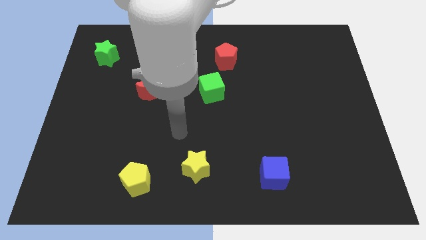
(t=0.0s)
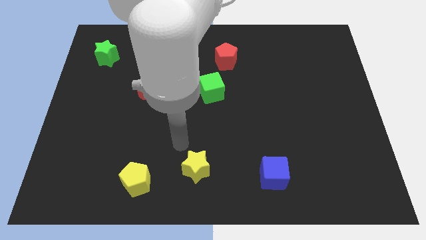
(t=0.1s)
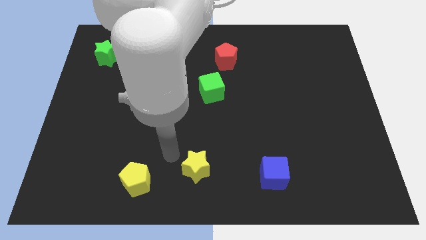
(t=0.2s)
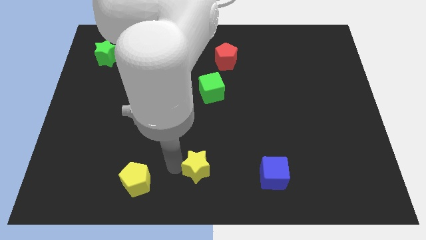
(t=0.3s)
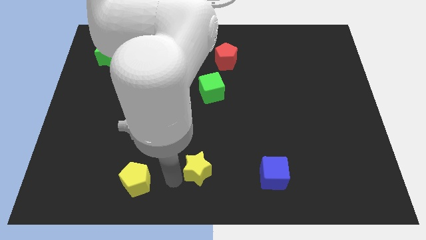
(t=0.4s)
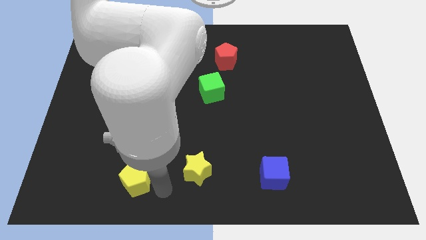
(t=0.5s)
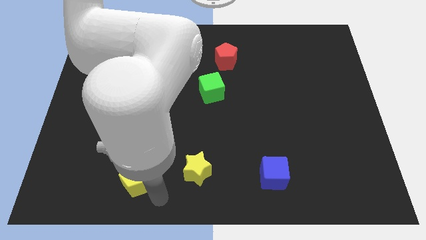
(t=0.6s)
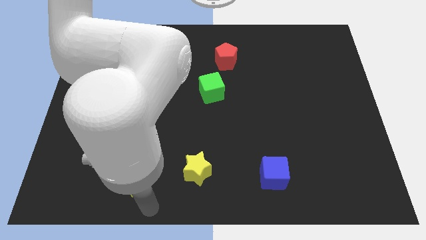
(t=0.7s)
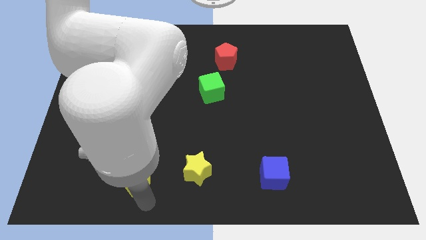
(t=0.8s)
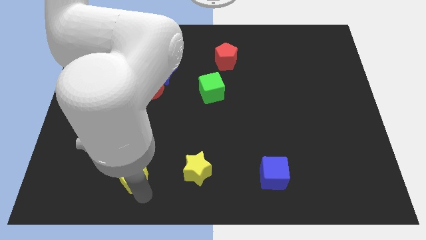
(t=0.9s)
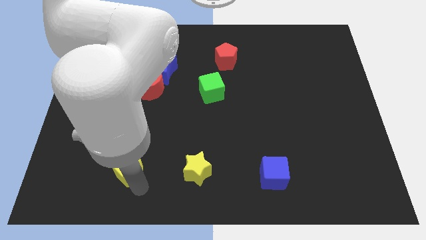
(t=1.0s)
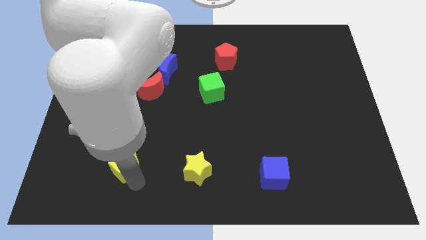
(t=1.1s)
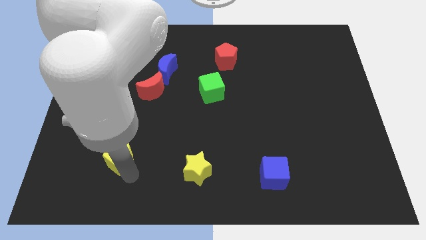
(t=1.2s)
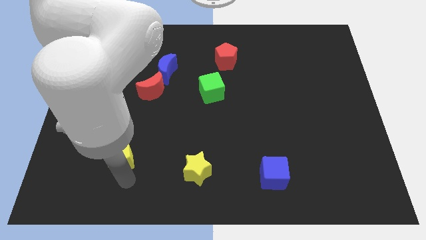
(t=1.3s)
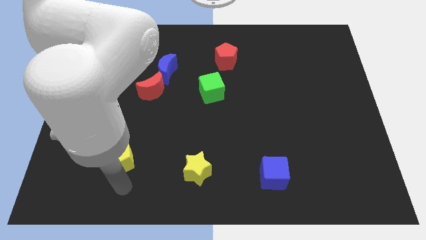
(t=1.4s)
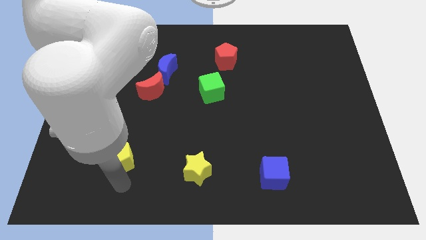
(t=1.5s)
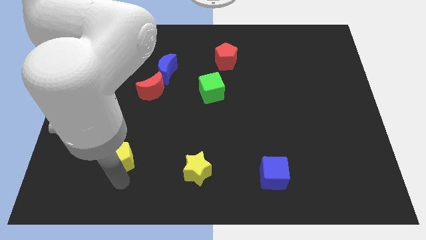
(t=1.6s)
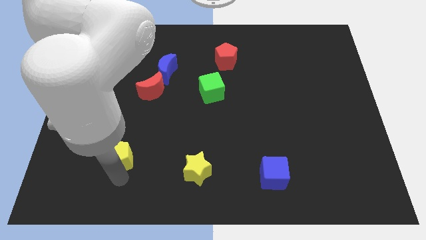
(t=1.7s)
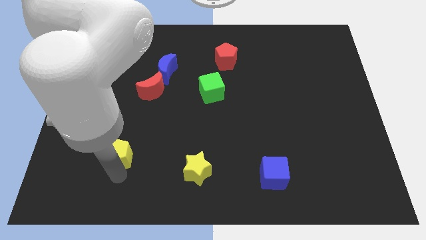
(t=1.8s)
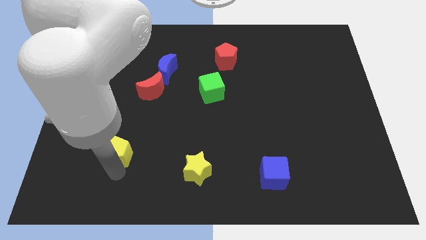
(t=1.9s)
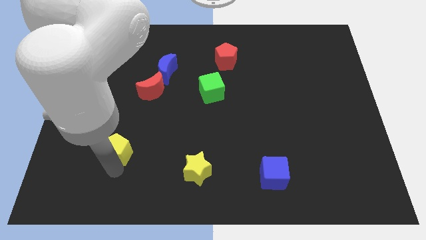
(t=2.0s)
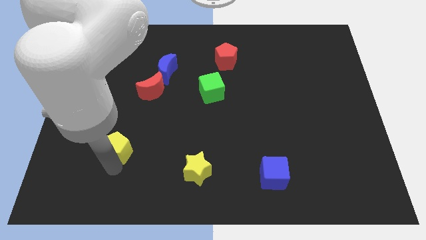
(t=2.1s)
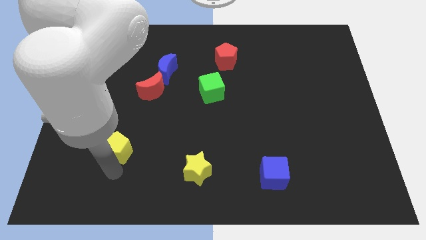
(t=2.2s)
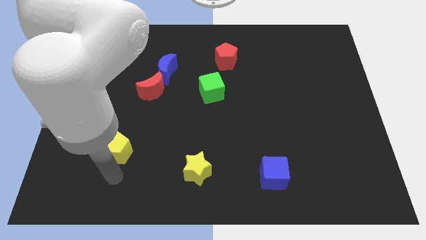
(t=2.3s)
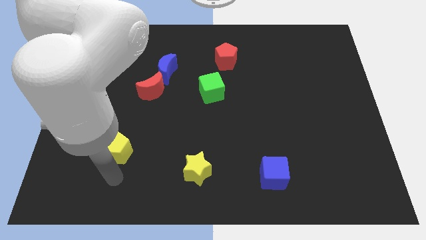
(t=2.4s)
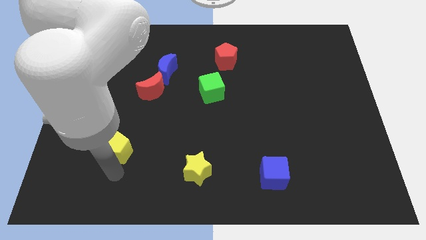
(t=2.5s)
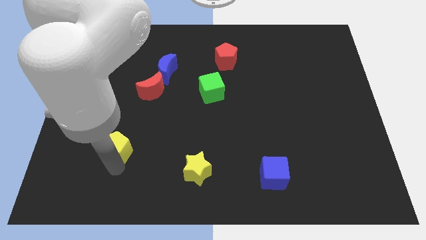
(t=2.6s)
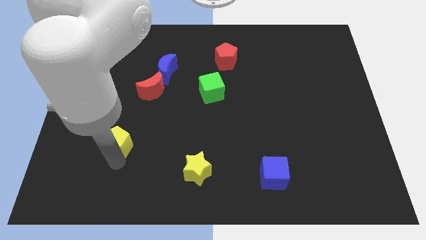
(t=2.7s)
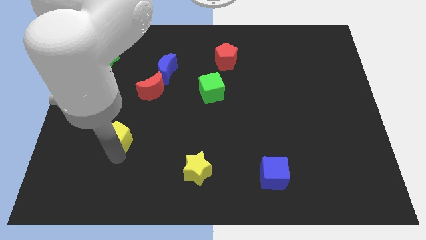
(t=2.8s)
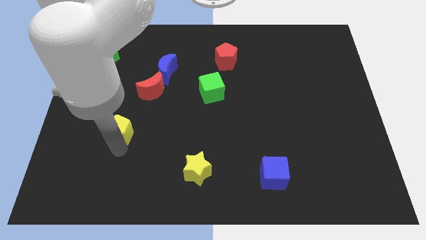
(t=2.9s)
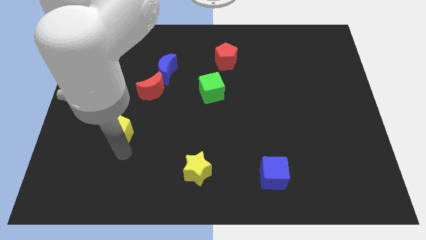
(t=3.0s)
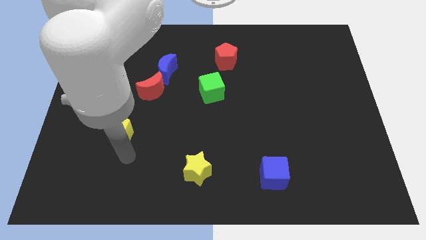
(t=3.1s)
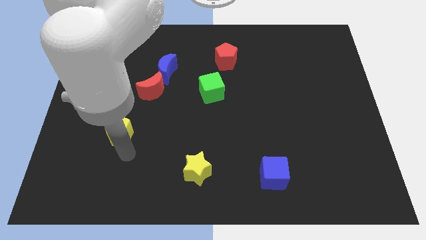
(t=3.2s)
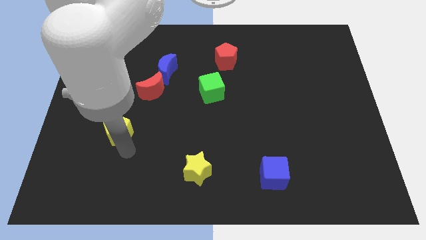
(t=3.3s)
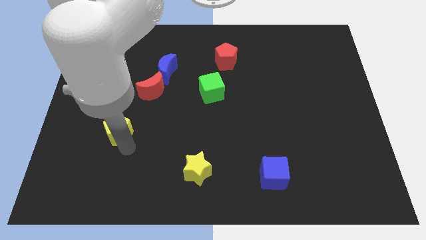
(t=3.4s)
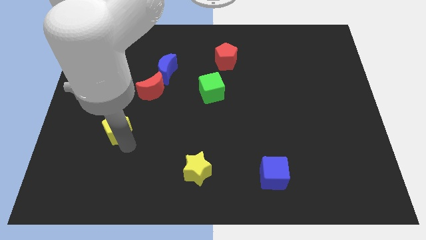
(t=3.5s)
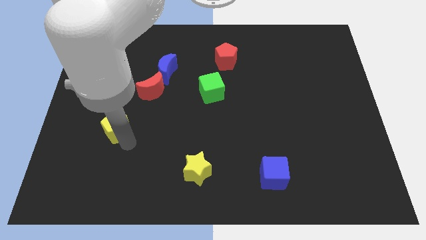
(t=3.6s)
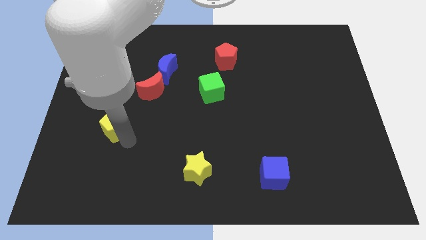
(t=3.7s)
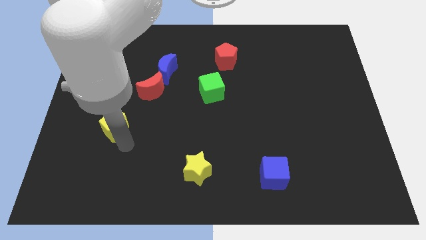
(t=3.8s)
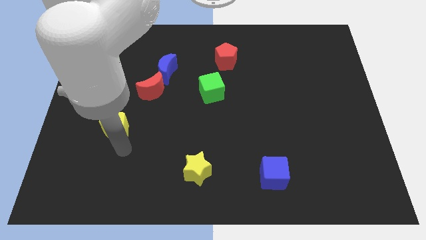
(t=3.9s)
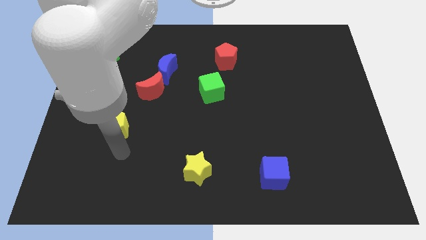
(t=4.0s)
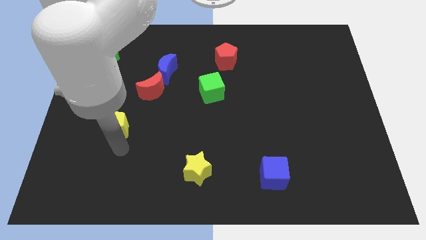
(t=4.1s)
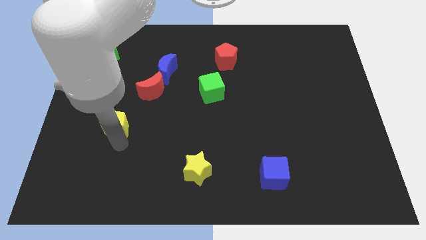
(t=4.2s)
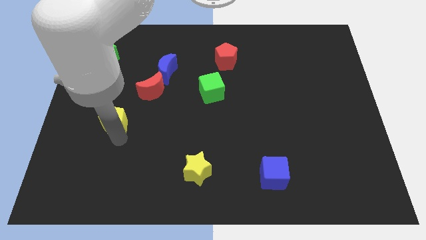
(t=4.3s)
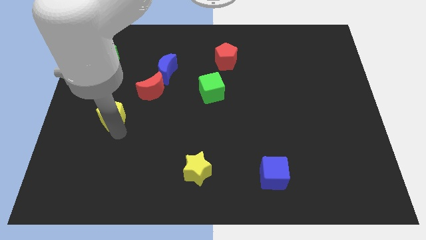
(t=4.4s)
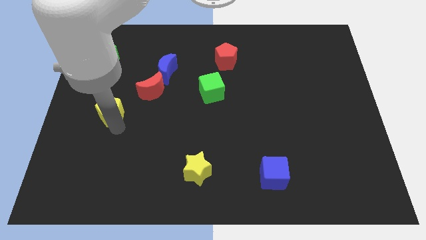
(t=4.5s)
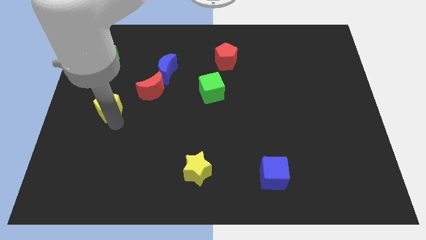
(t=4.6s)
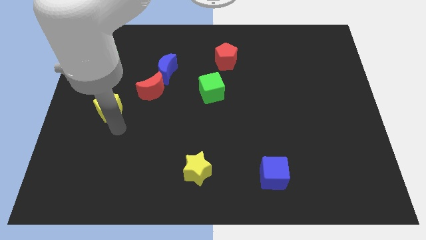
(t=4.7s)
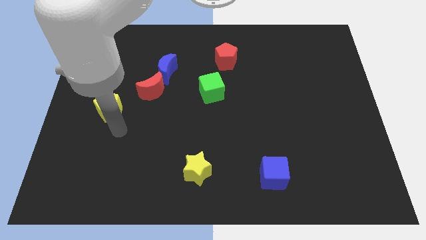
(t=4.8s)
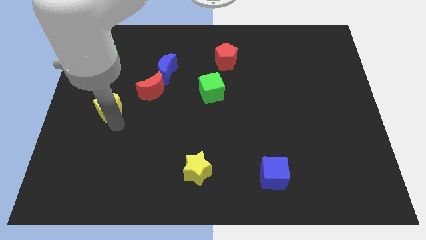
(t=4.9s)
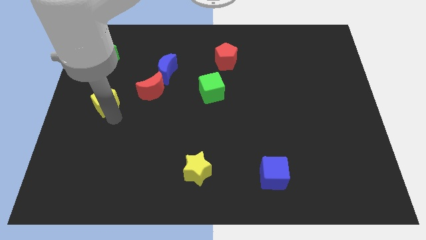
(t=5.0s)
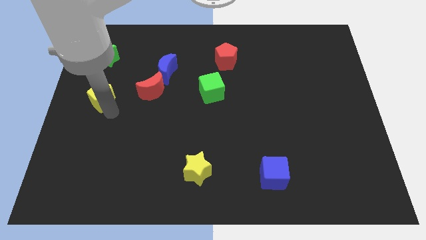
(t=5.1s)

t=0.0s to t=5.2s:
slide the yellow pentagon to the bottom of the green star
